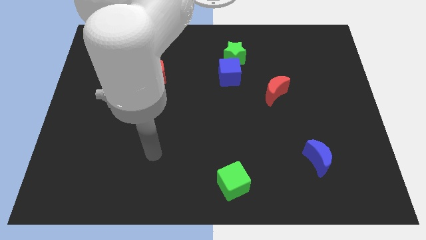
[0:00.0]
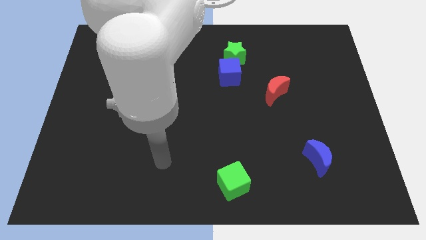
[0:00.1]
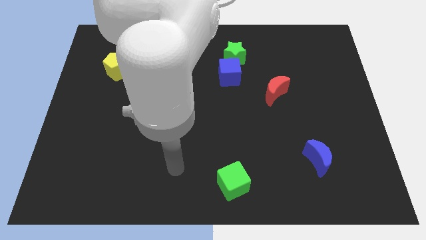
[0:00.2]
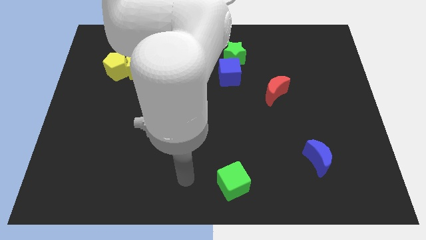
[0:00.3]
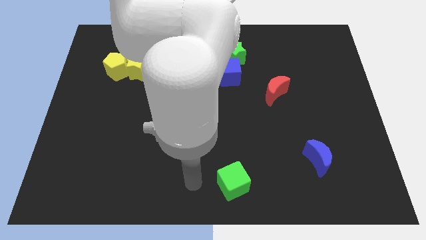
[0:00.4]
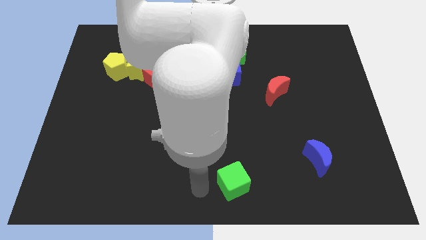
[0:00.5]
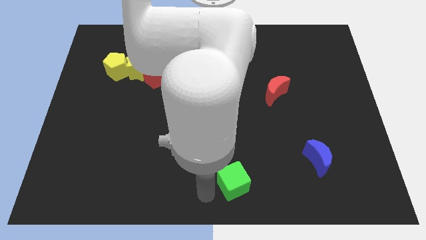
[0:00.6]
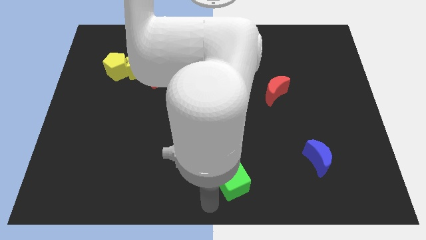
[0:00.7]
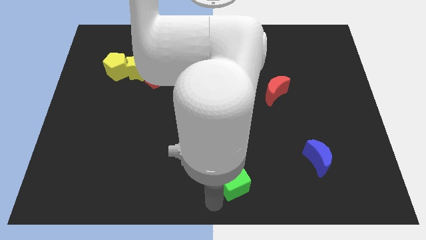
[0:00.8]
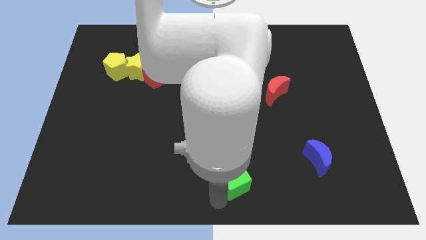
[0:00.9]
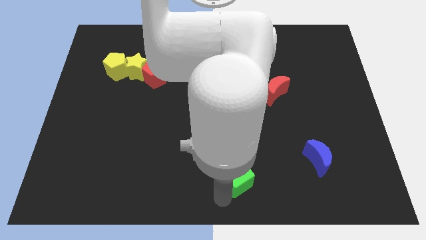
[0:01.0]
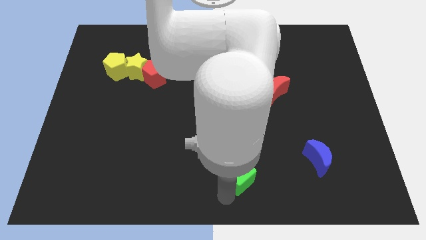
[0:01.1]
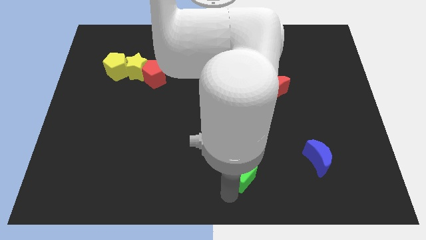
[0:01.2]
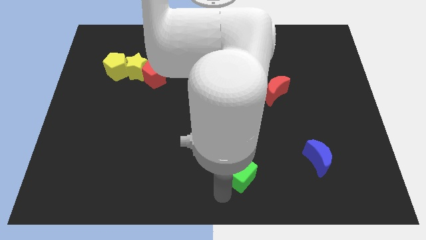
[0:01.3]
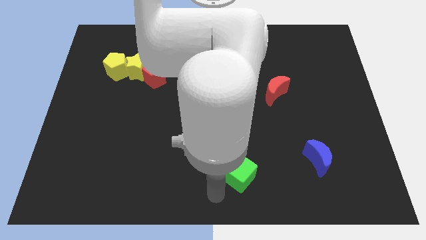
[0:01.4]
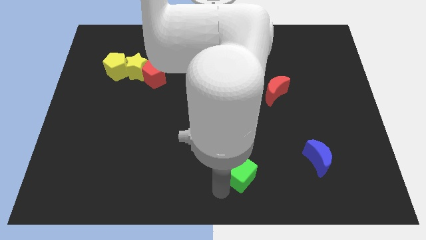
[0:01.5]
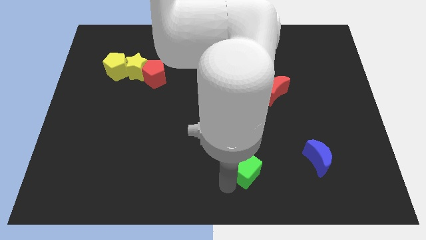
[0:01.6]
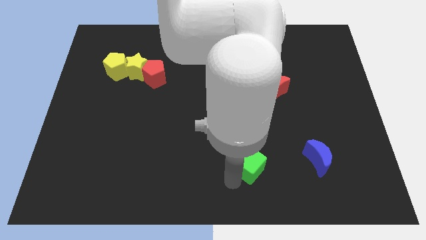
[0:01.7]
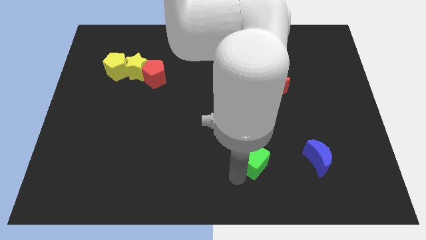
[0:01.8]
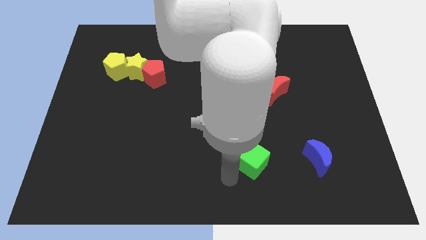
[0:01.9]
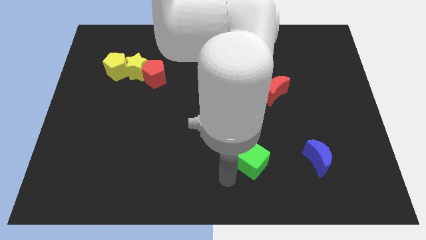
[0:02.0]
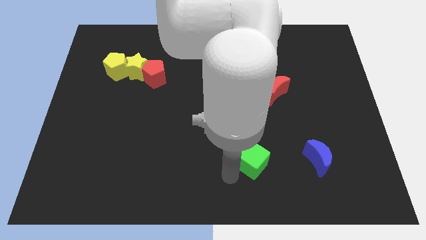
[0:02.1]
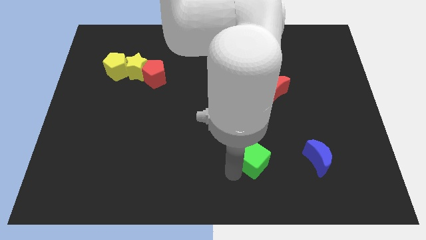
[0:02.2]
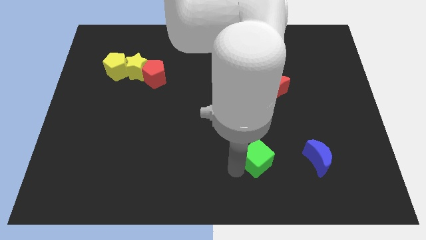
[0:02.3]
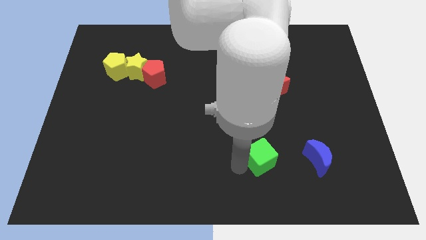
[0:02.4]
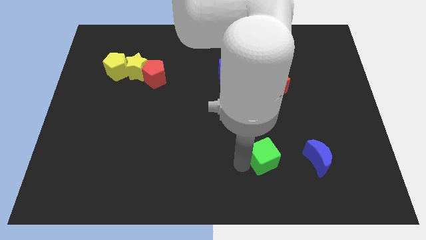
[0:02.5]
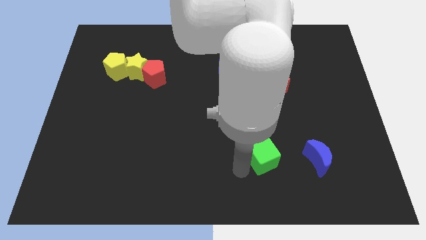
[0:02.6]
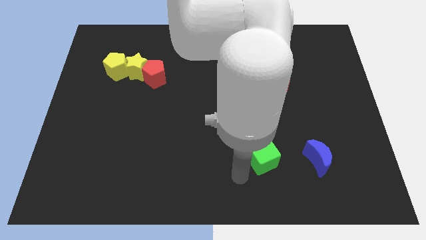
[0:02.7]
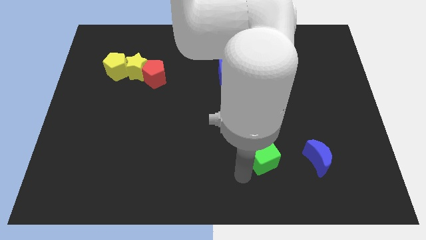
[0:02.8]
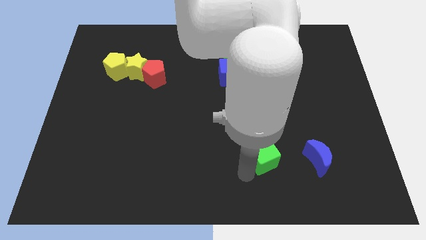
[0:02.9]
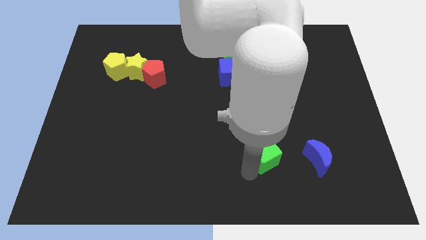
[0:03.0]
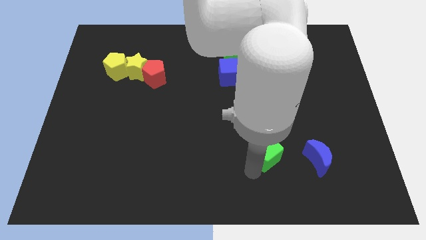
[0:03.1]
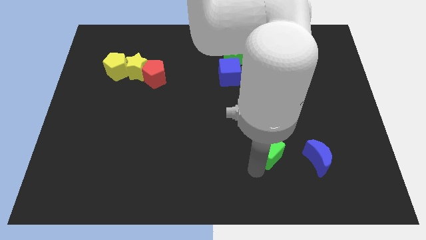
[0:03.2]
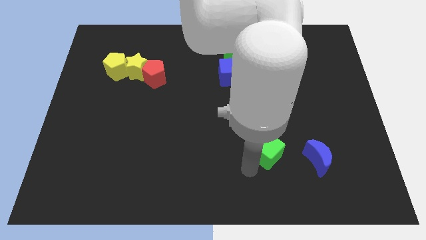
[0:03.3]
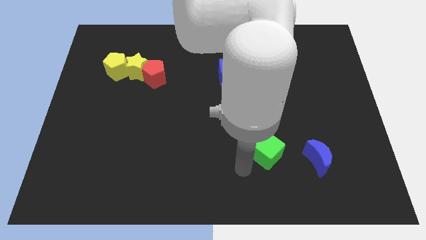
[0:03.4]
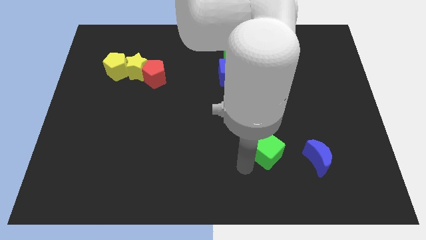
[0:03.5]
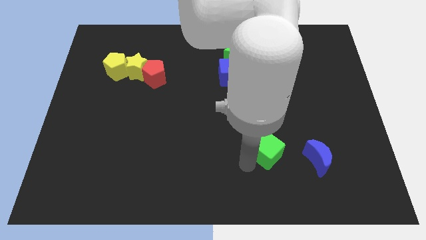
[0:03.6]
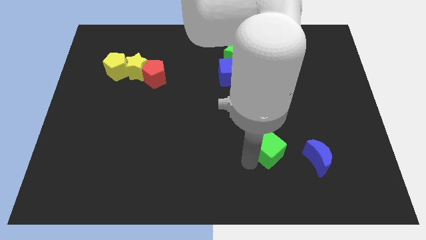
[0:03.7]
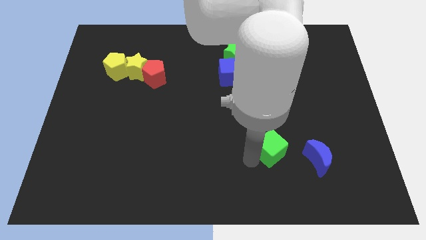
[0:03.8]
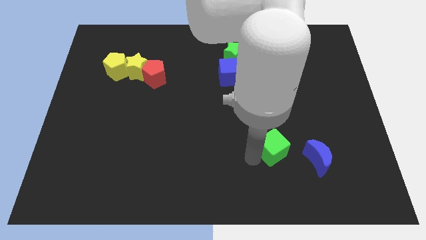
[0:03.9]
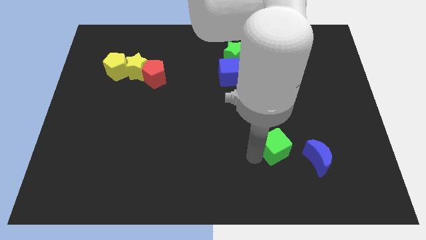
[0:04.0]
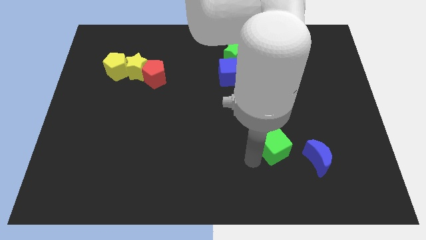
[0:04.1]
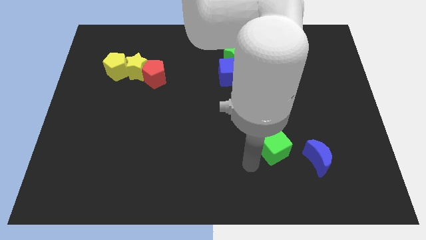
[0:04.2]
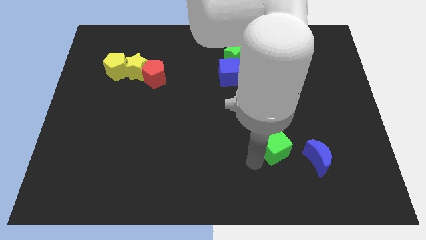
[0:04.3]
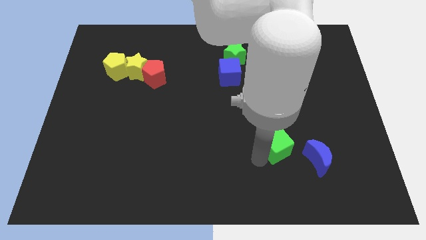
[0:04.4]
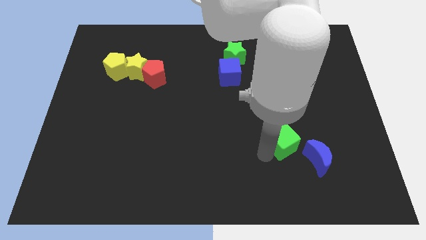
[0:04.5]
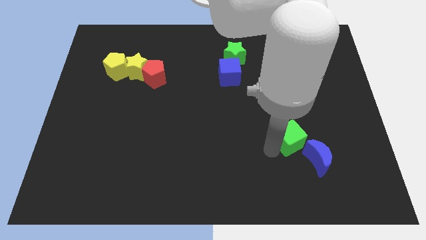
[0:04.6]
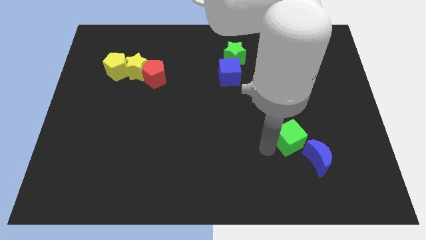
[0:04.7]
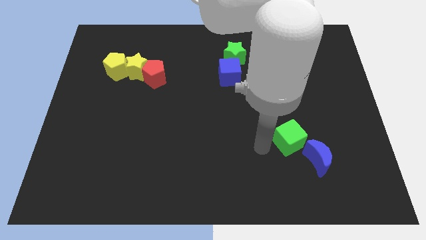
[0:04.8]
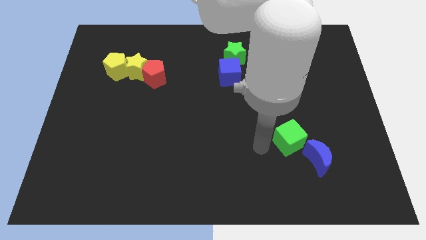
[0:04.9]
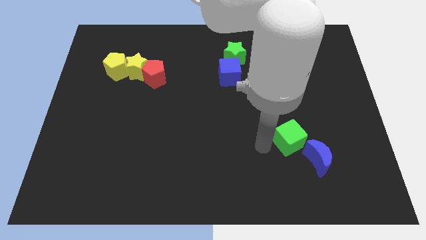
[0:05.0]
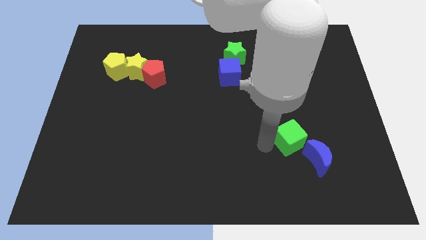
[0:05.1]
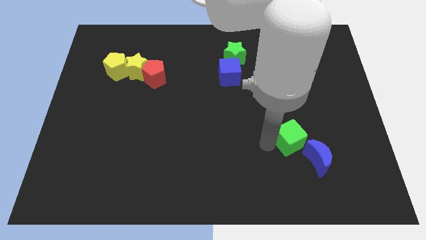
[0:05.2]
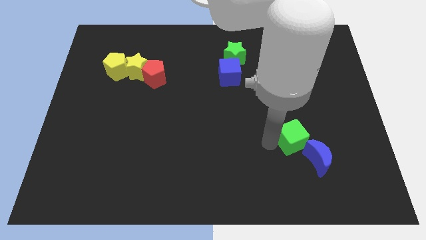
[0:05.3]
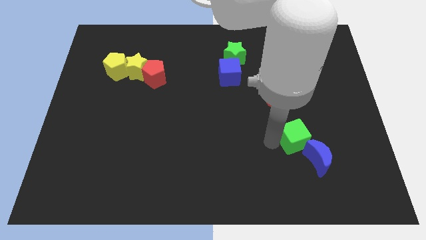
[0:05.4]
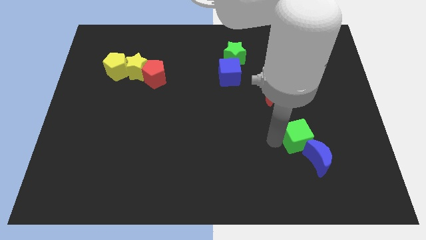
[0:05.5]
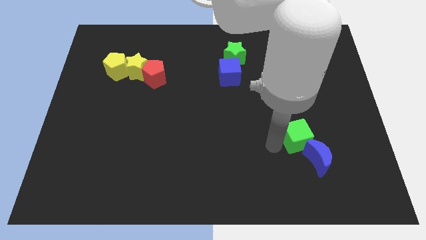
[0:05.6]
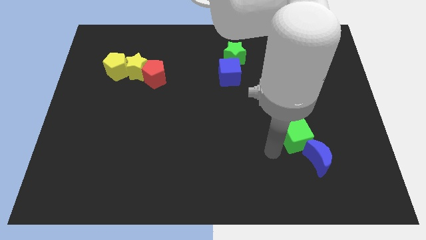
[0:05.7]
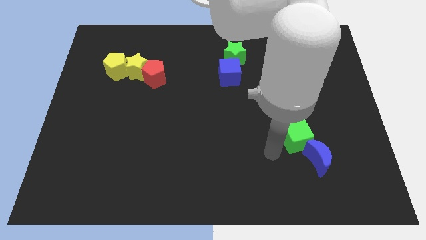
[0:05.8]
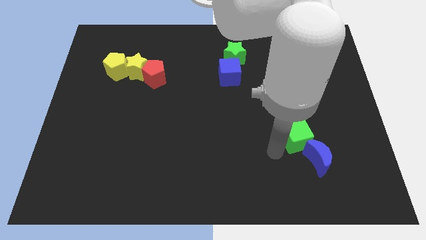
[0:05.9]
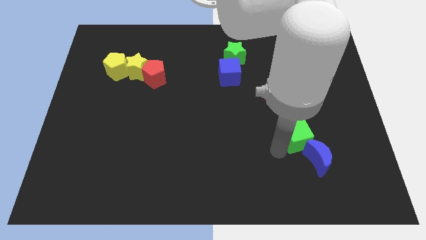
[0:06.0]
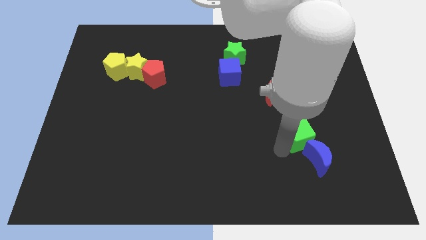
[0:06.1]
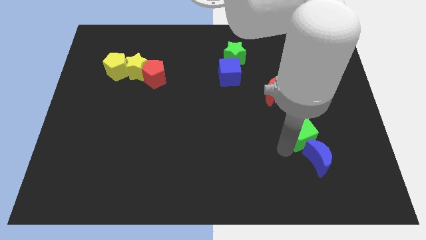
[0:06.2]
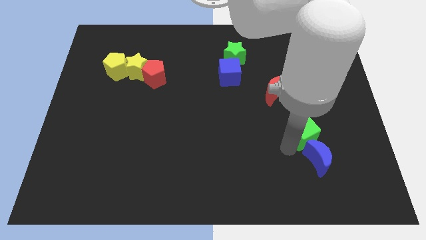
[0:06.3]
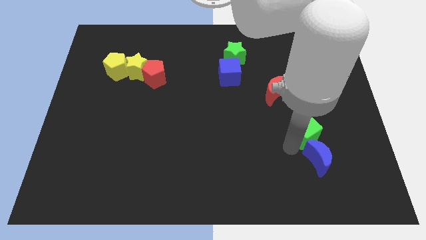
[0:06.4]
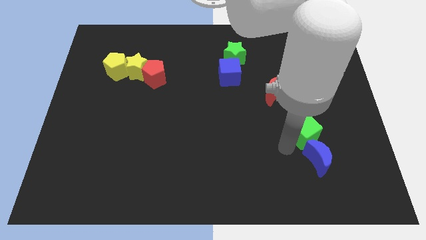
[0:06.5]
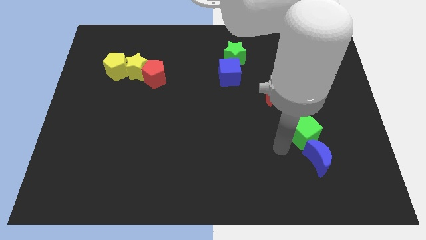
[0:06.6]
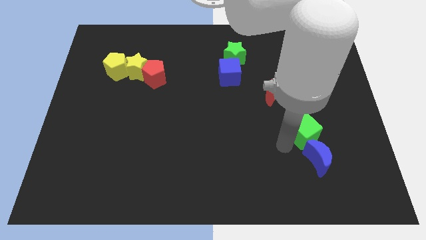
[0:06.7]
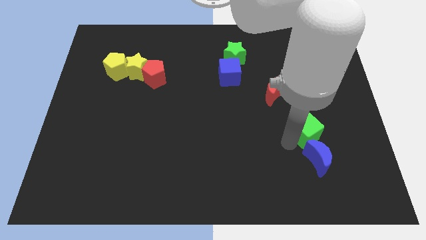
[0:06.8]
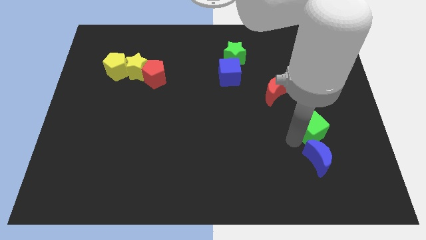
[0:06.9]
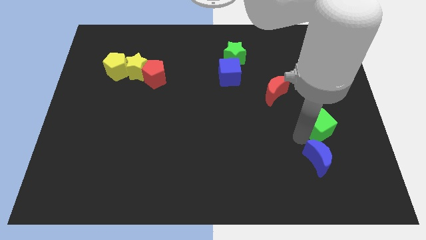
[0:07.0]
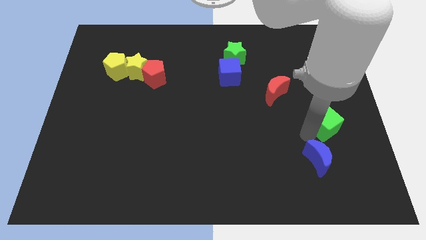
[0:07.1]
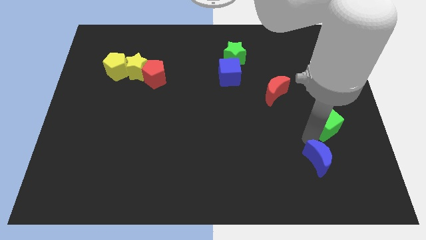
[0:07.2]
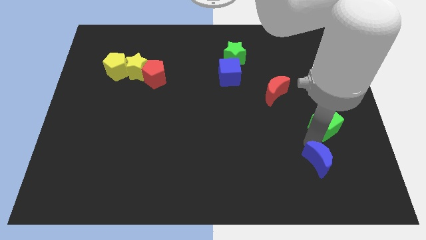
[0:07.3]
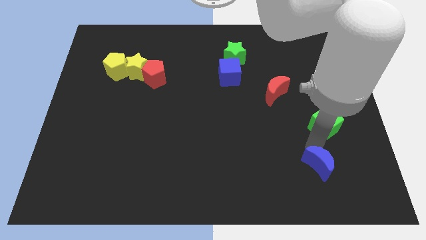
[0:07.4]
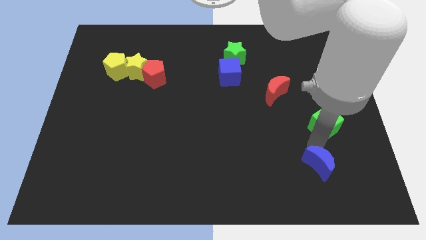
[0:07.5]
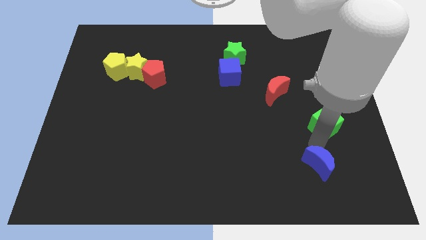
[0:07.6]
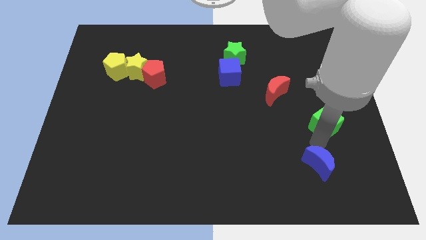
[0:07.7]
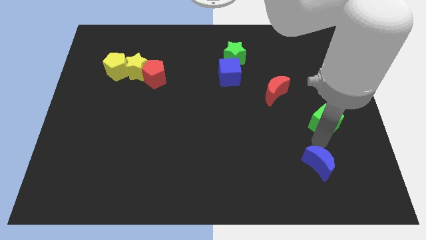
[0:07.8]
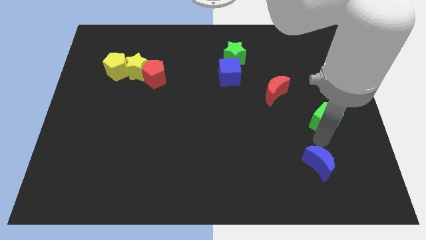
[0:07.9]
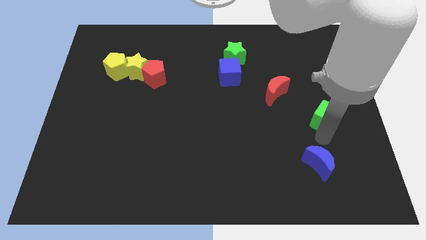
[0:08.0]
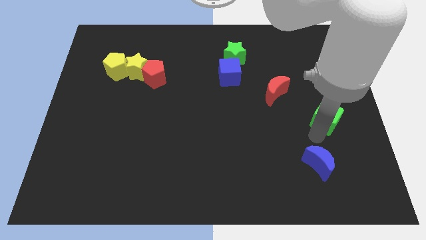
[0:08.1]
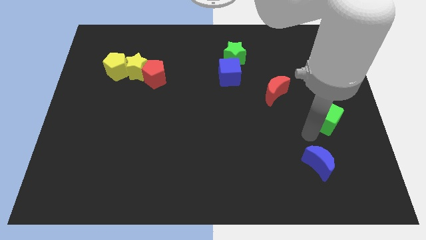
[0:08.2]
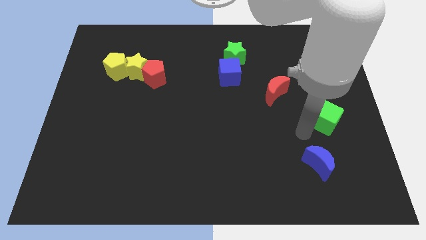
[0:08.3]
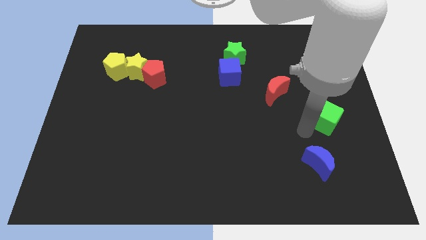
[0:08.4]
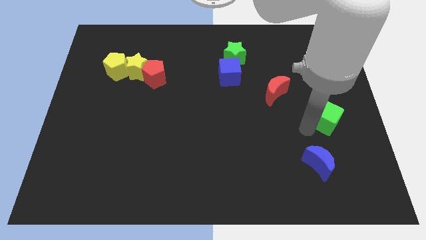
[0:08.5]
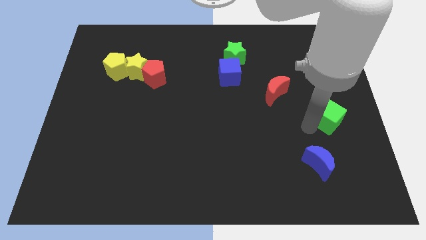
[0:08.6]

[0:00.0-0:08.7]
push the green cube to the right side of the board
